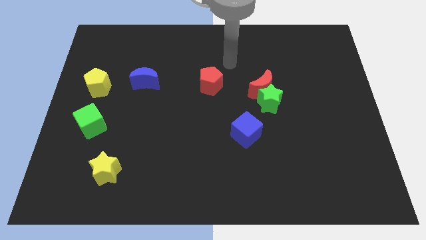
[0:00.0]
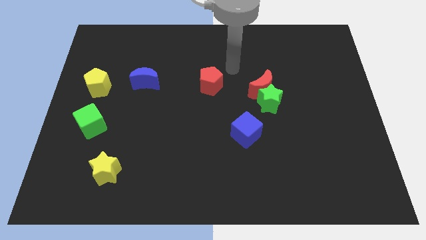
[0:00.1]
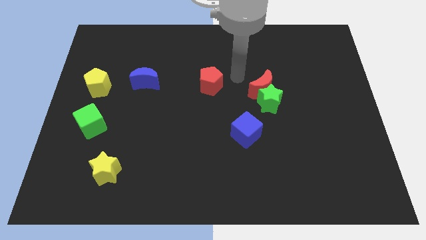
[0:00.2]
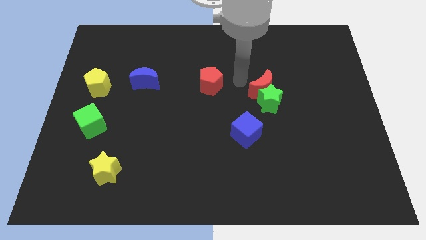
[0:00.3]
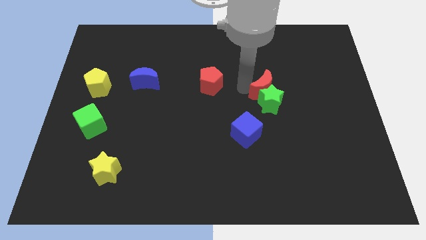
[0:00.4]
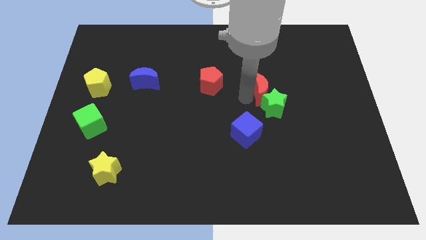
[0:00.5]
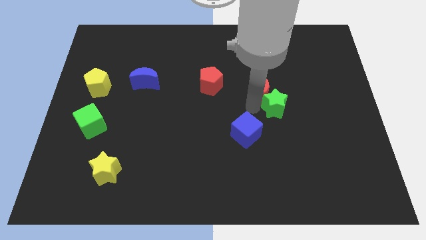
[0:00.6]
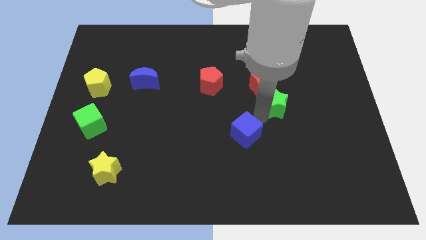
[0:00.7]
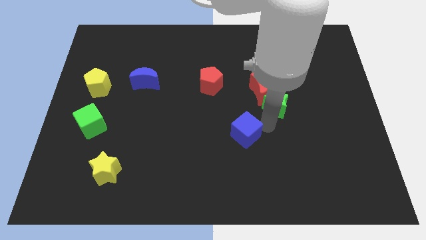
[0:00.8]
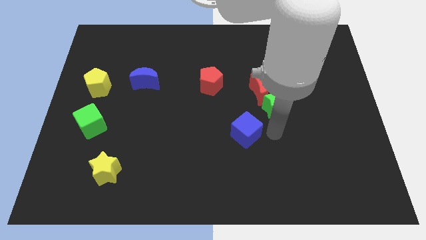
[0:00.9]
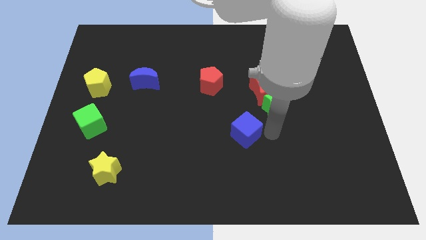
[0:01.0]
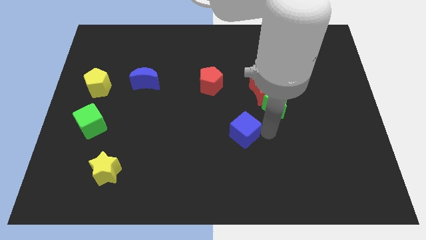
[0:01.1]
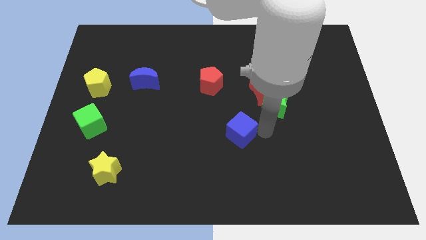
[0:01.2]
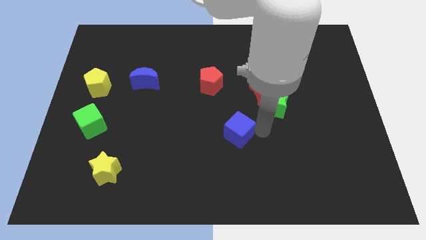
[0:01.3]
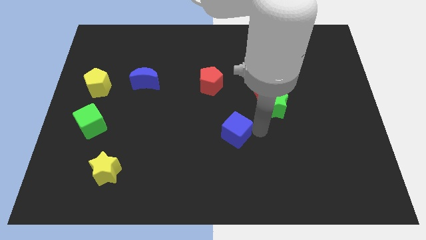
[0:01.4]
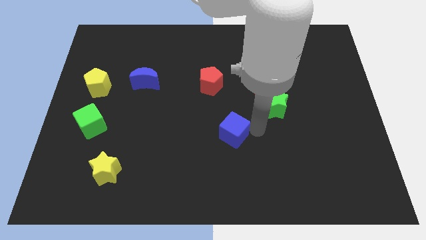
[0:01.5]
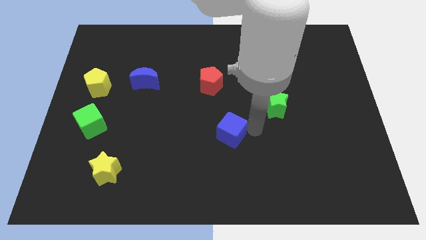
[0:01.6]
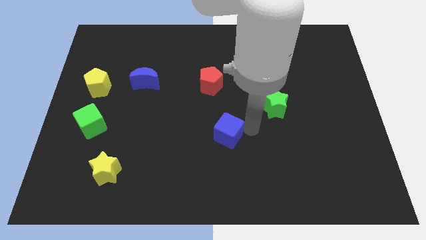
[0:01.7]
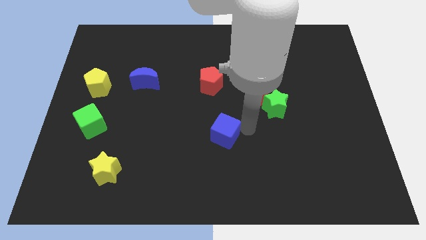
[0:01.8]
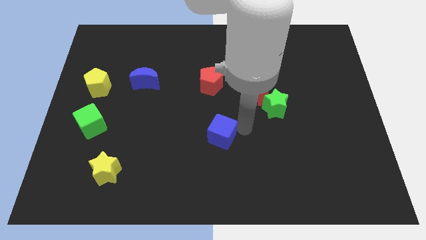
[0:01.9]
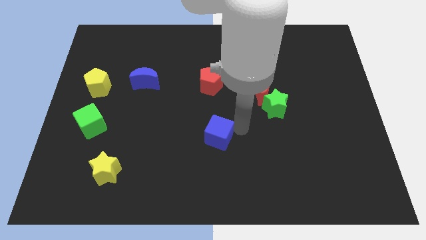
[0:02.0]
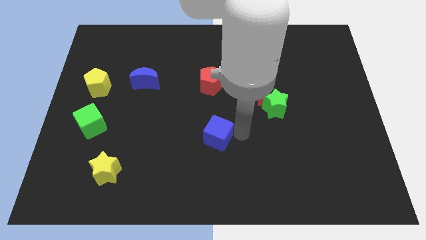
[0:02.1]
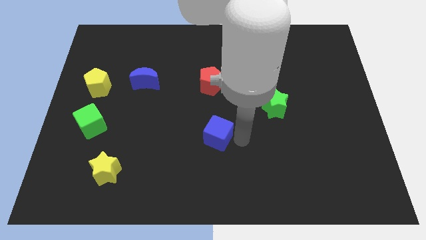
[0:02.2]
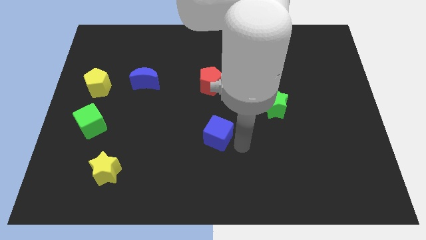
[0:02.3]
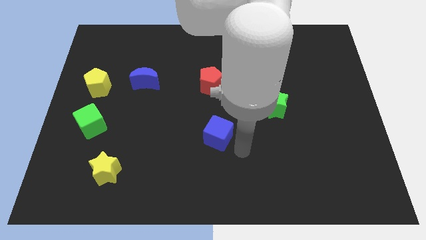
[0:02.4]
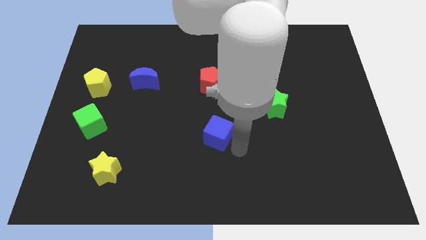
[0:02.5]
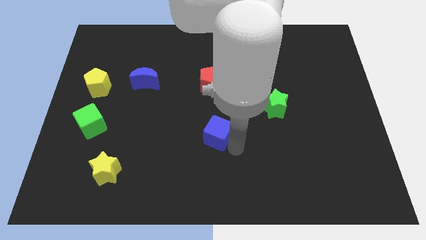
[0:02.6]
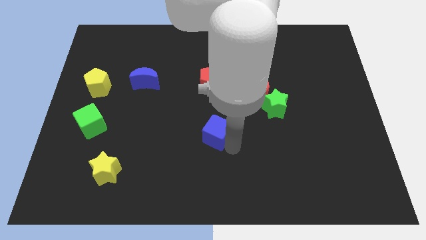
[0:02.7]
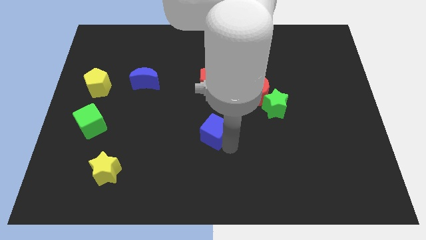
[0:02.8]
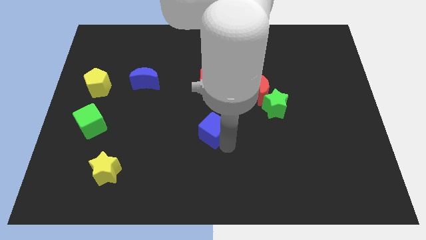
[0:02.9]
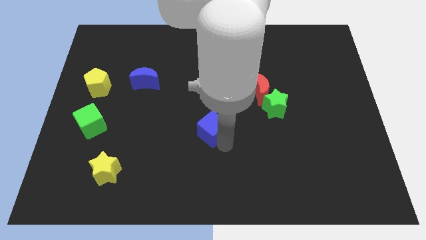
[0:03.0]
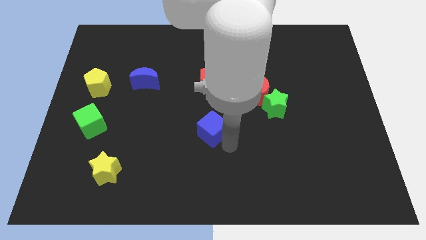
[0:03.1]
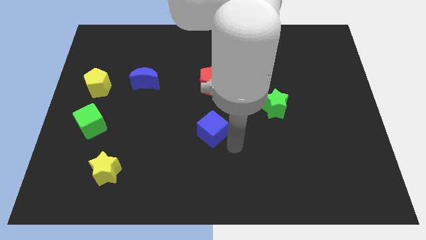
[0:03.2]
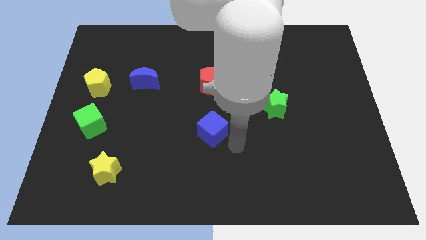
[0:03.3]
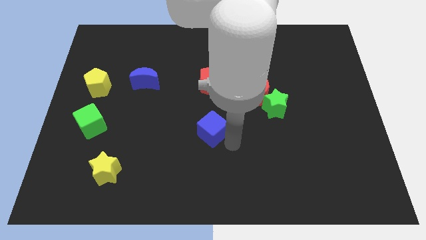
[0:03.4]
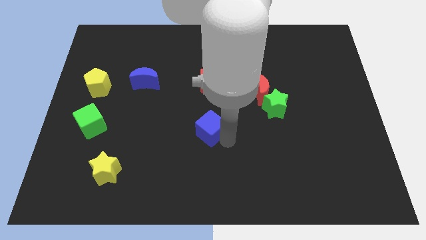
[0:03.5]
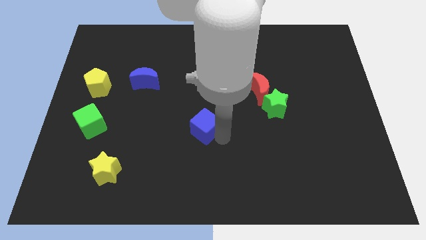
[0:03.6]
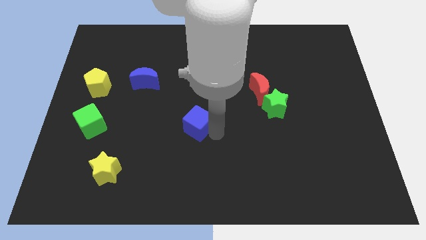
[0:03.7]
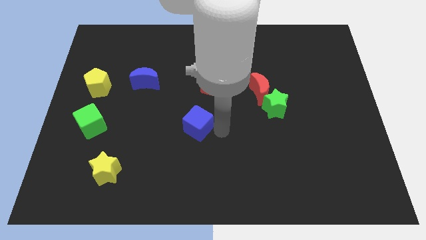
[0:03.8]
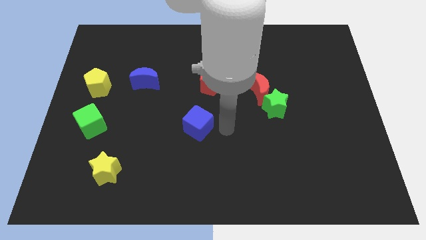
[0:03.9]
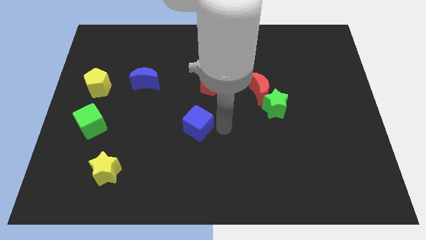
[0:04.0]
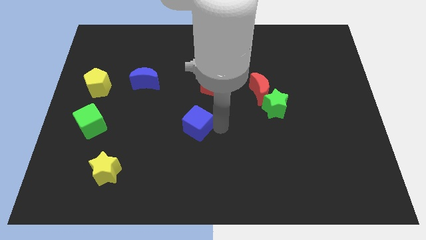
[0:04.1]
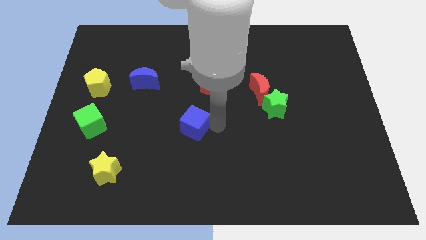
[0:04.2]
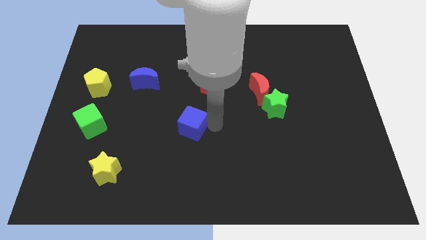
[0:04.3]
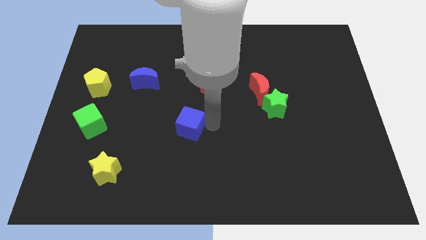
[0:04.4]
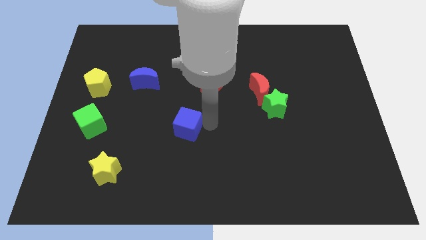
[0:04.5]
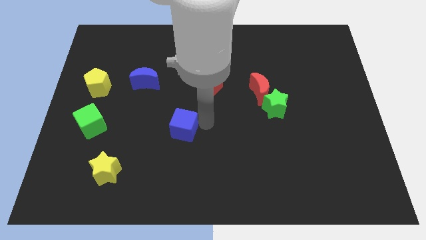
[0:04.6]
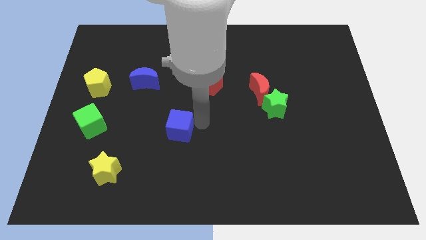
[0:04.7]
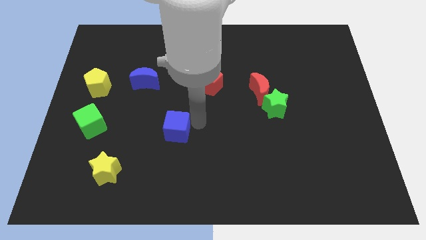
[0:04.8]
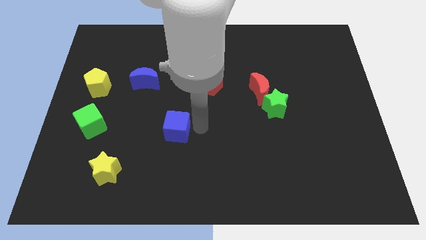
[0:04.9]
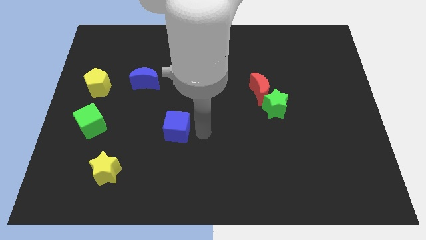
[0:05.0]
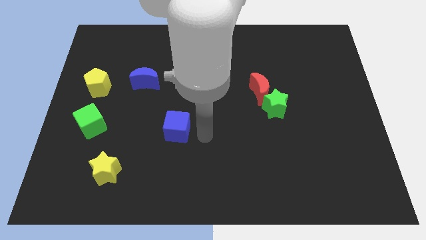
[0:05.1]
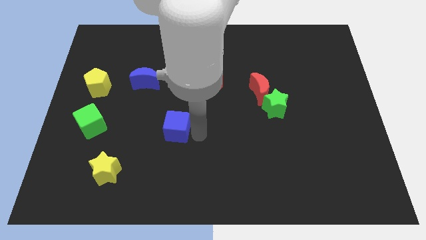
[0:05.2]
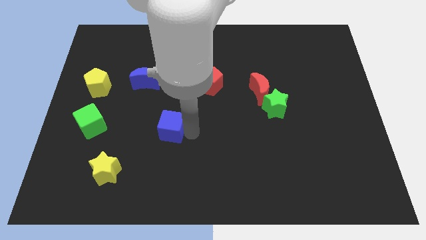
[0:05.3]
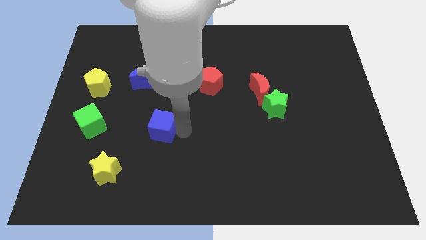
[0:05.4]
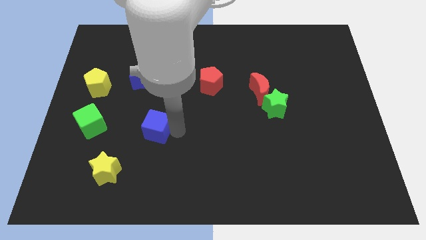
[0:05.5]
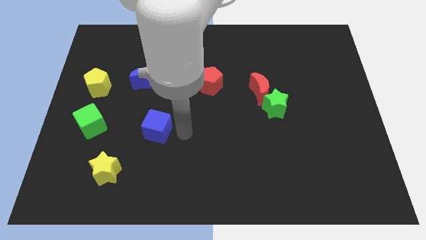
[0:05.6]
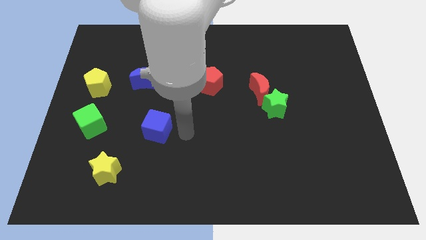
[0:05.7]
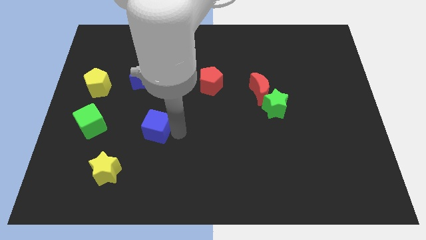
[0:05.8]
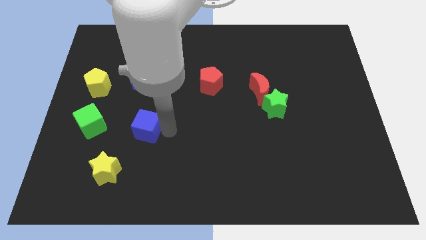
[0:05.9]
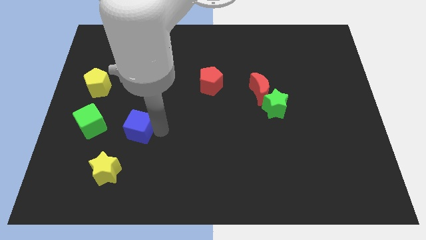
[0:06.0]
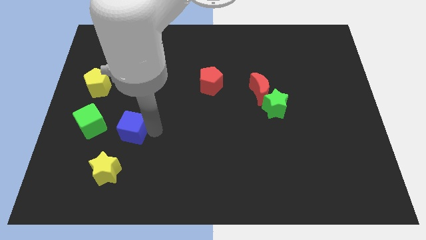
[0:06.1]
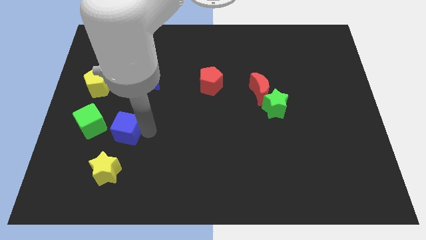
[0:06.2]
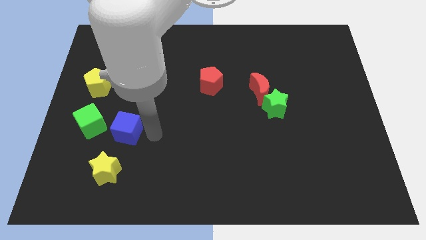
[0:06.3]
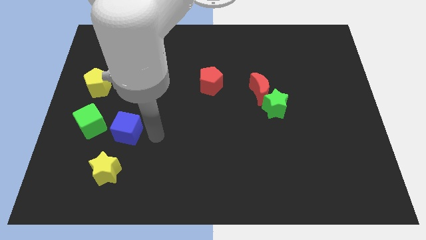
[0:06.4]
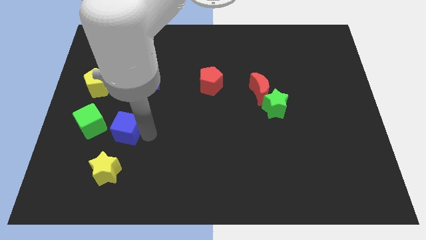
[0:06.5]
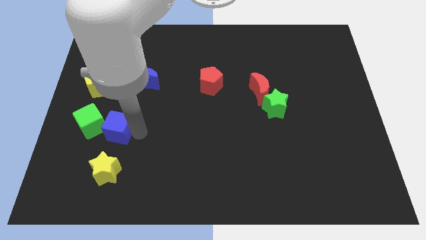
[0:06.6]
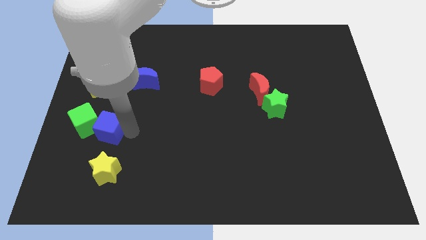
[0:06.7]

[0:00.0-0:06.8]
move the blue cube close to the green cube

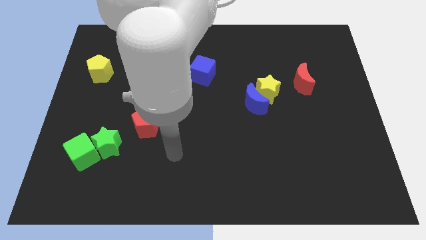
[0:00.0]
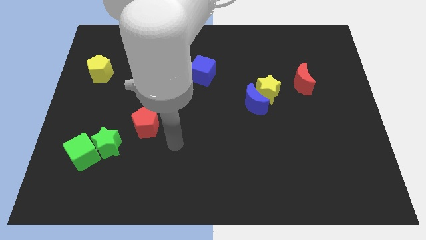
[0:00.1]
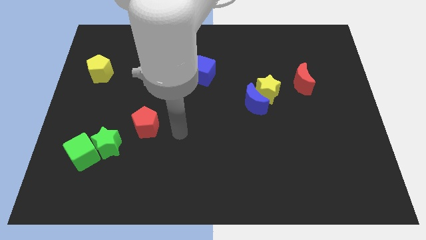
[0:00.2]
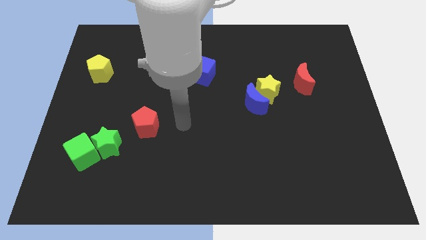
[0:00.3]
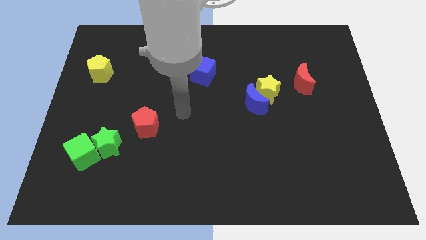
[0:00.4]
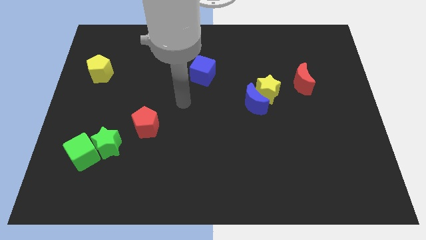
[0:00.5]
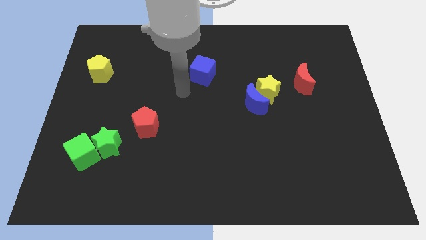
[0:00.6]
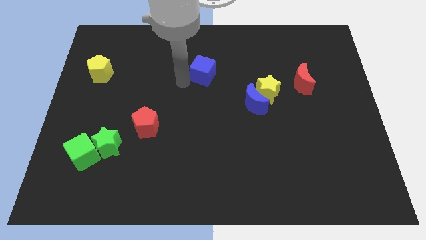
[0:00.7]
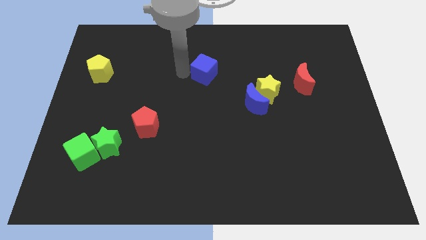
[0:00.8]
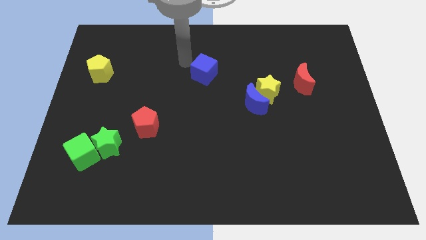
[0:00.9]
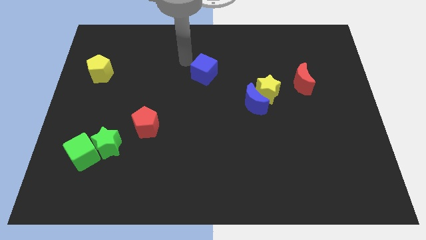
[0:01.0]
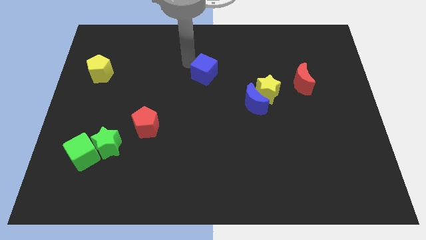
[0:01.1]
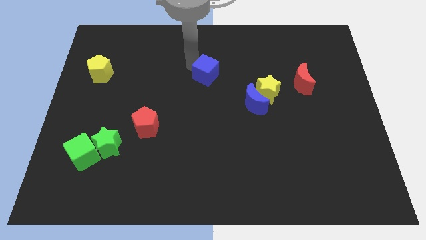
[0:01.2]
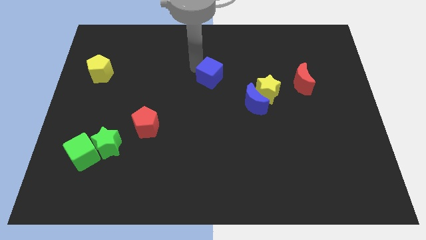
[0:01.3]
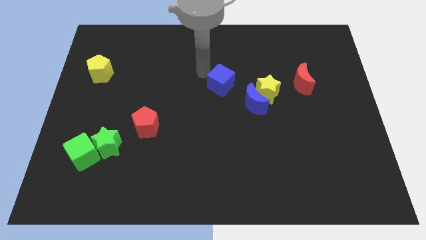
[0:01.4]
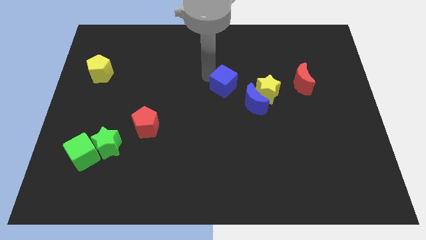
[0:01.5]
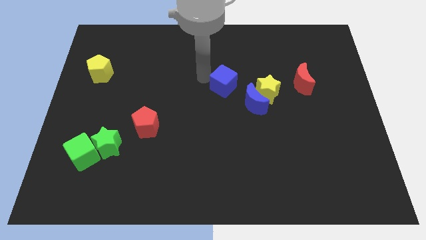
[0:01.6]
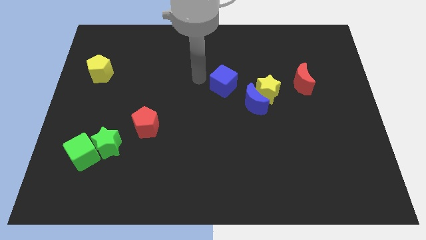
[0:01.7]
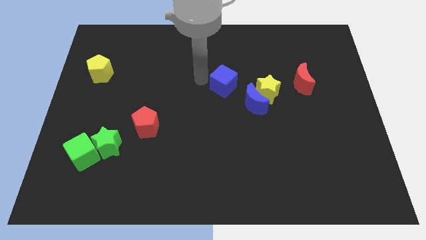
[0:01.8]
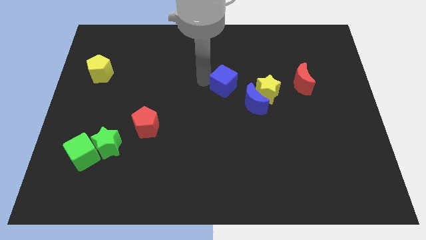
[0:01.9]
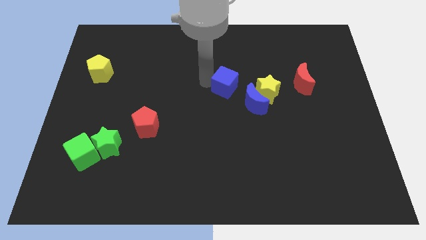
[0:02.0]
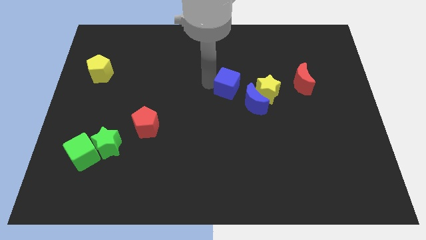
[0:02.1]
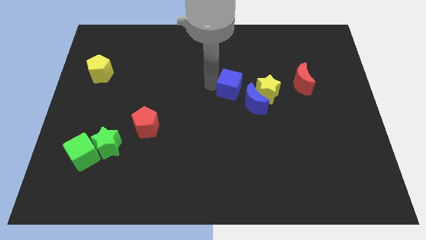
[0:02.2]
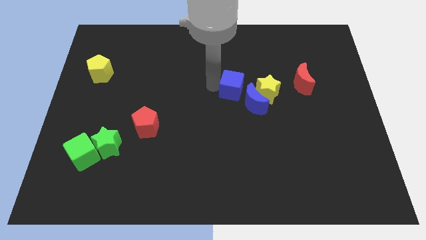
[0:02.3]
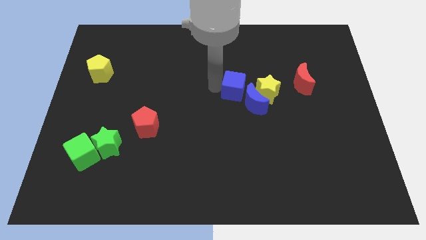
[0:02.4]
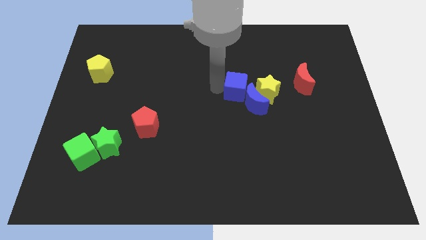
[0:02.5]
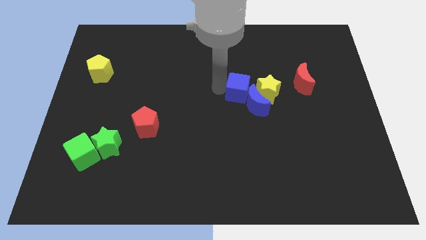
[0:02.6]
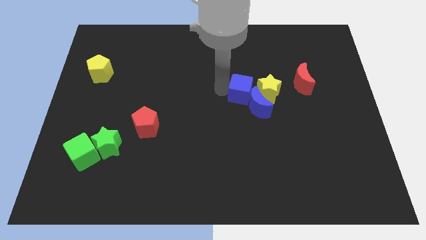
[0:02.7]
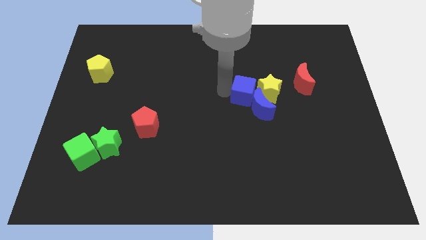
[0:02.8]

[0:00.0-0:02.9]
put the blue cube to the yellow star
